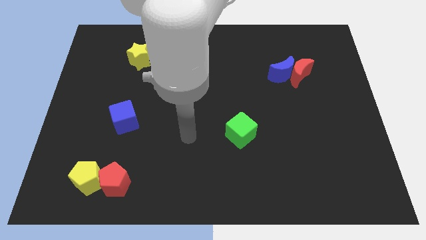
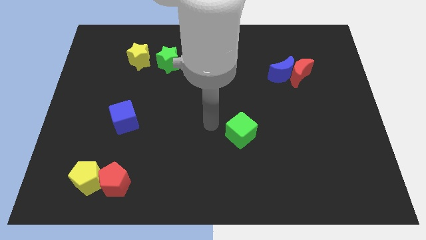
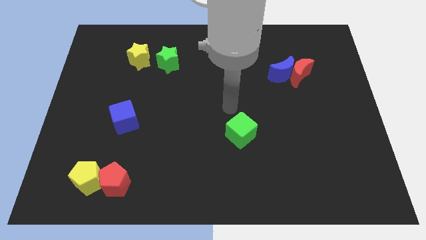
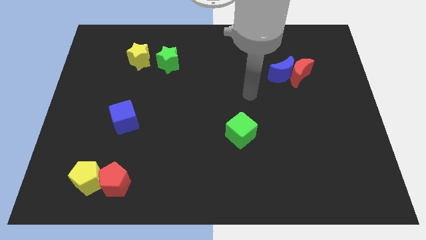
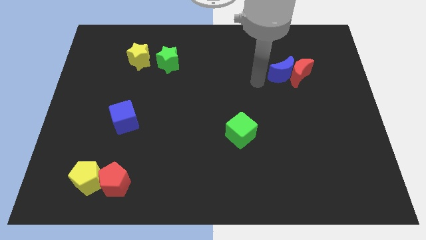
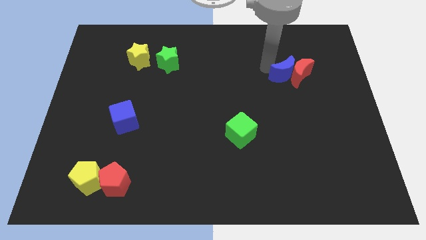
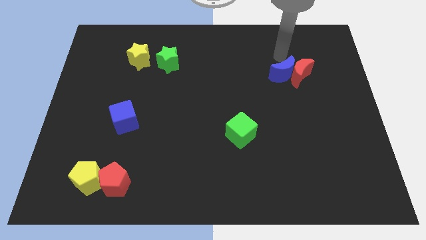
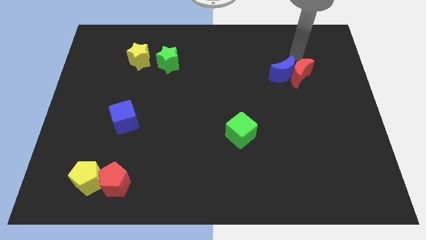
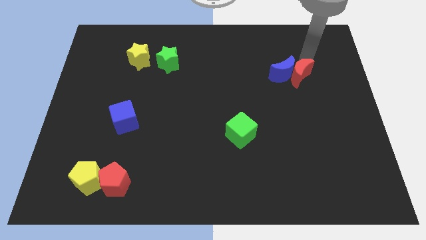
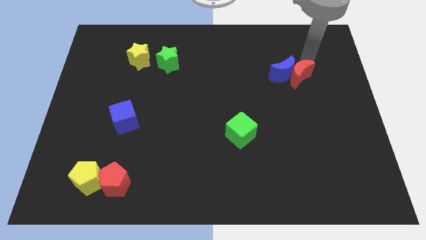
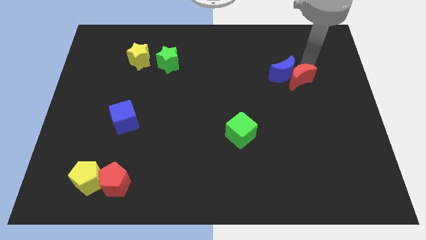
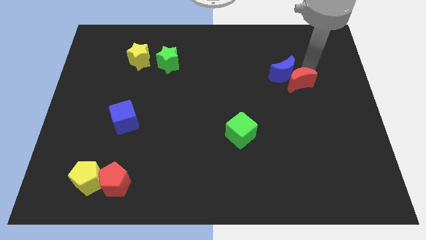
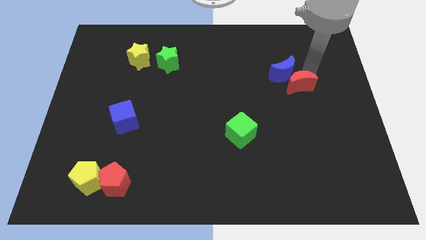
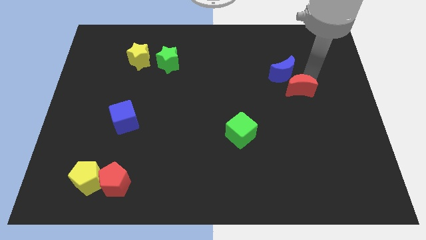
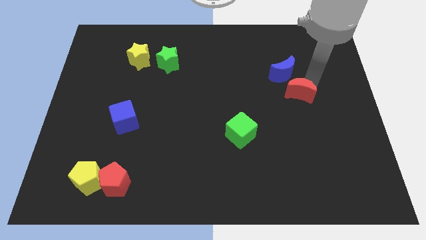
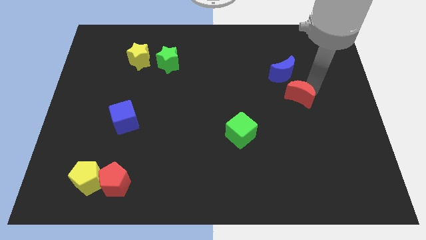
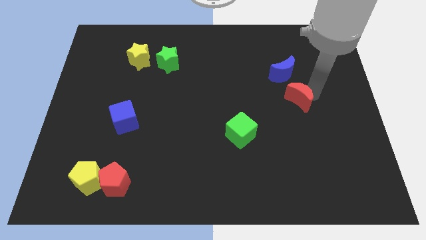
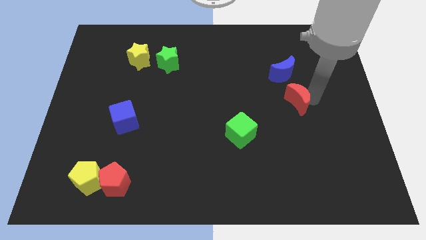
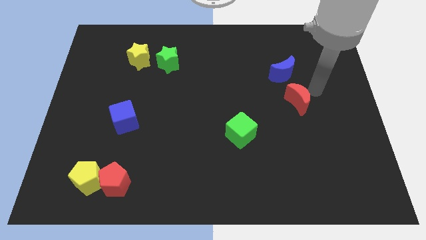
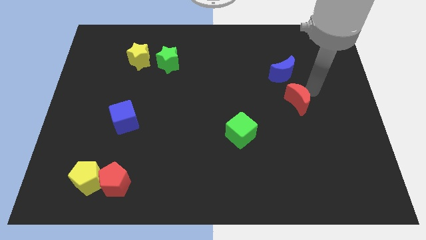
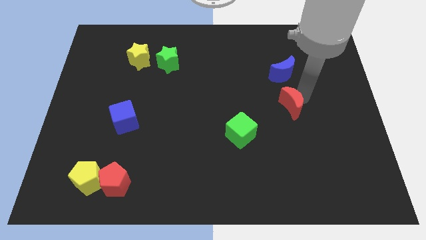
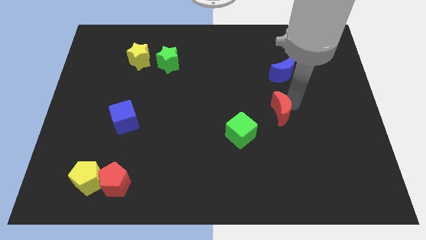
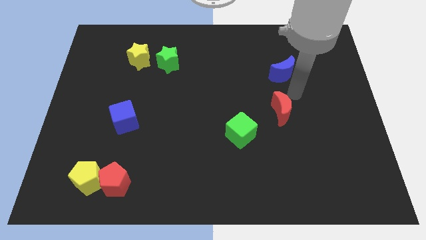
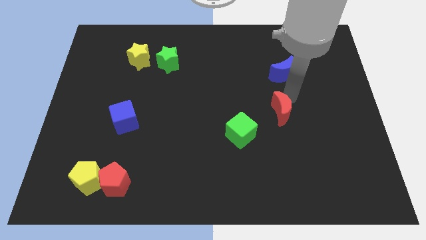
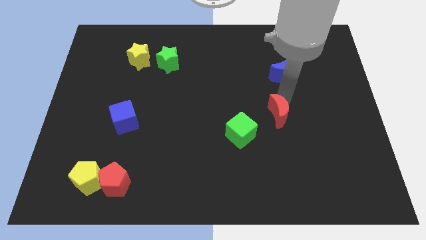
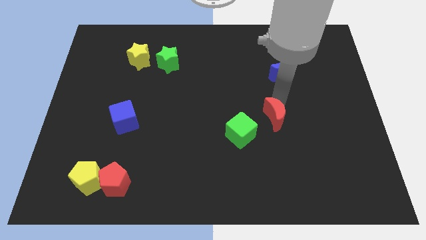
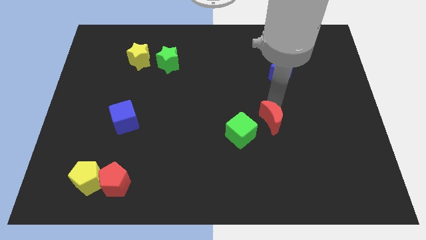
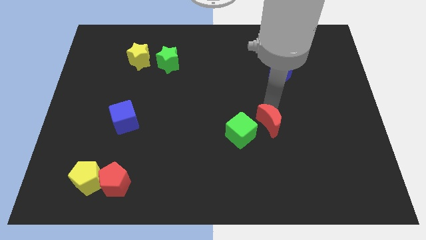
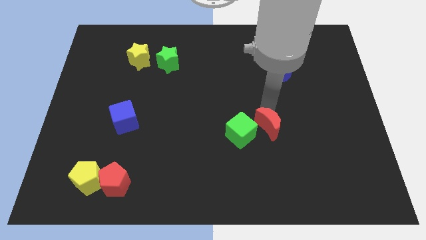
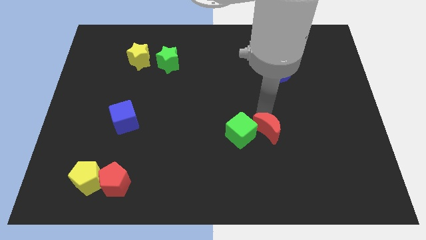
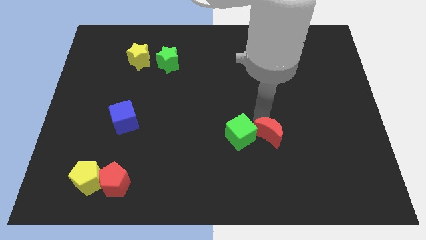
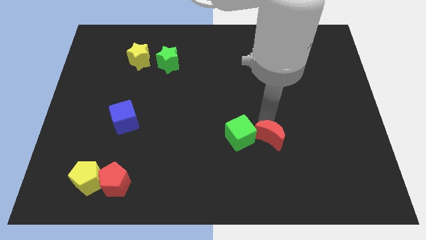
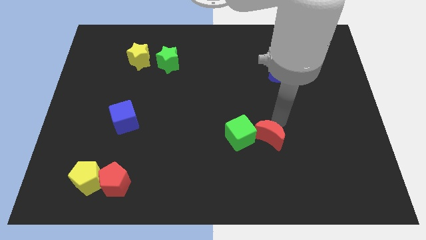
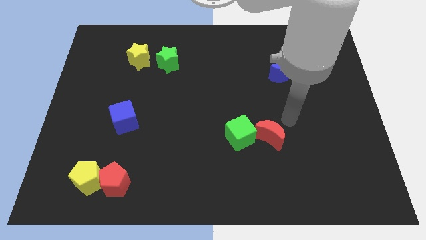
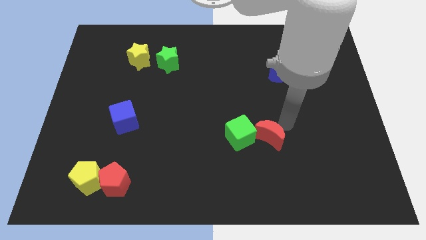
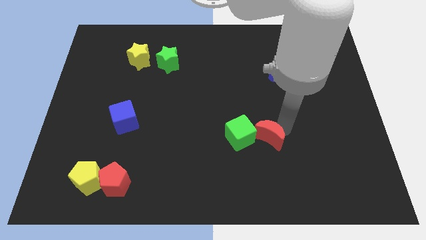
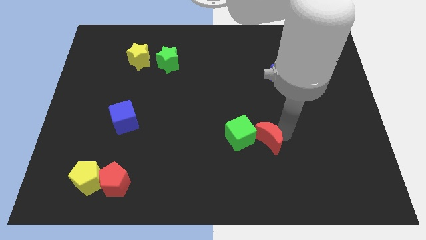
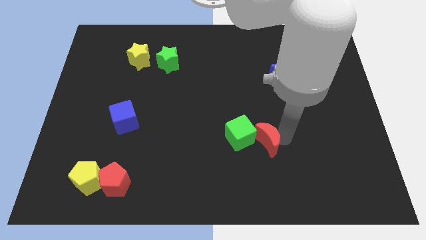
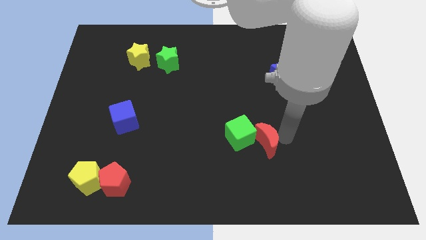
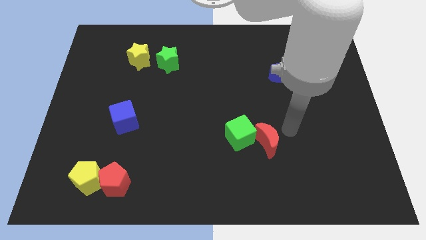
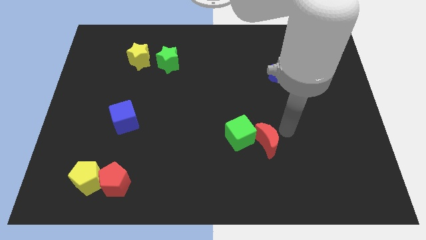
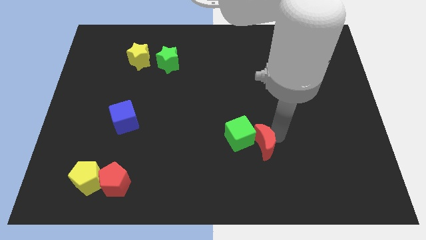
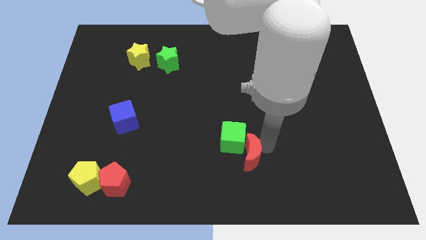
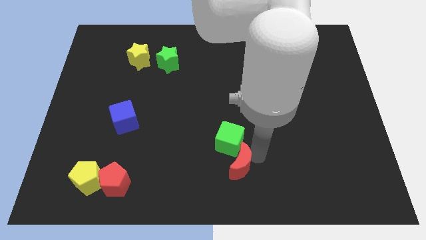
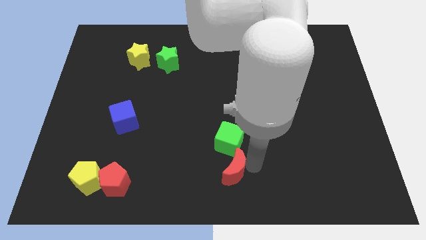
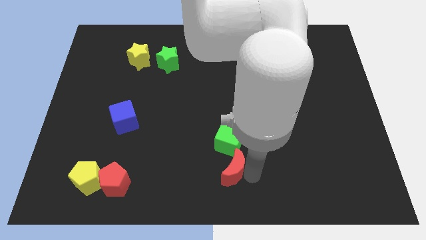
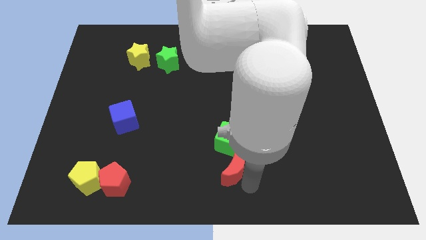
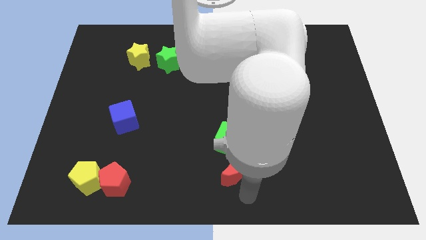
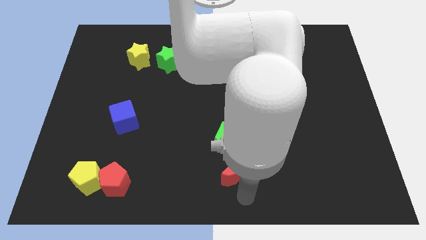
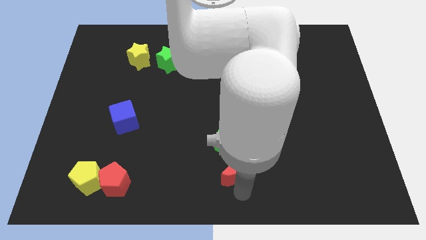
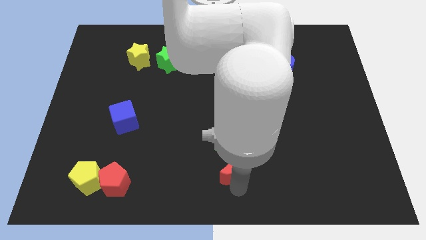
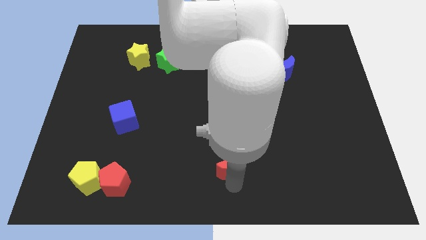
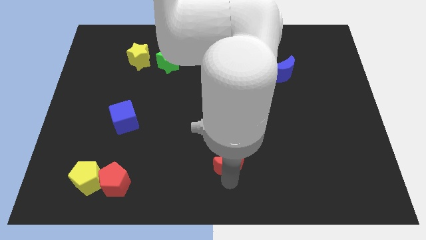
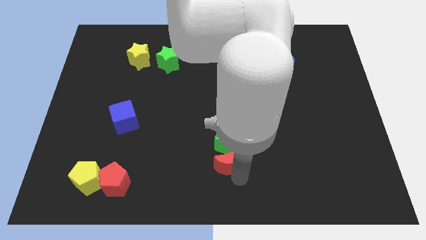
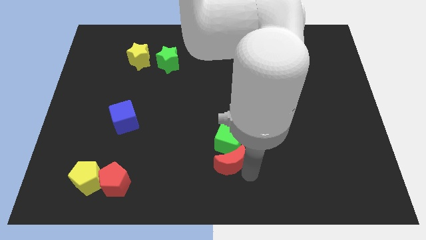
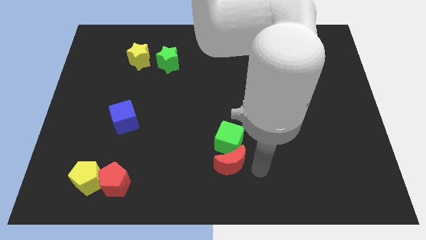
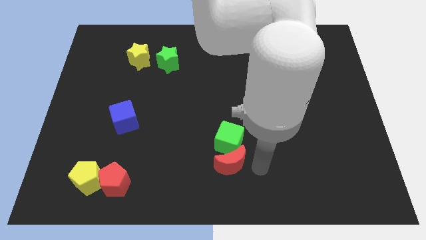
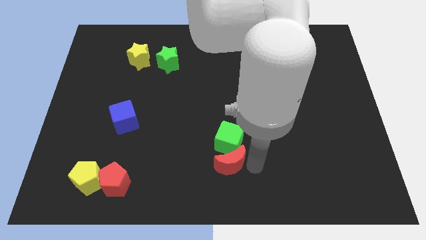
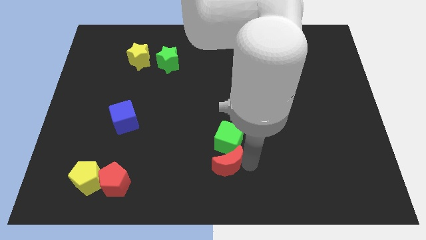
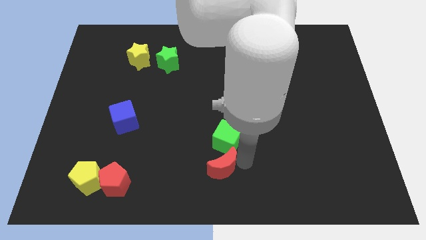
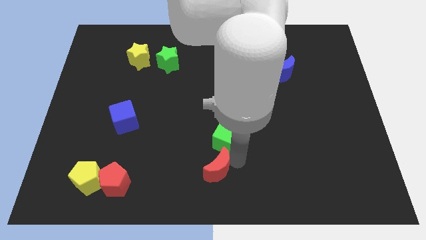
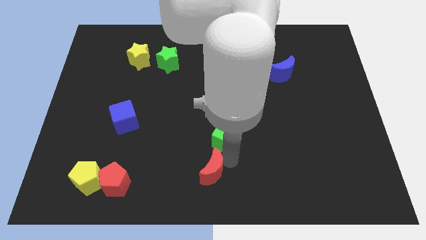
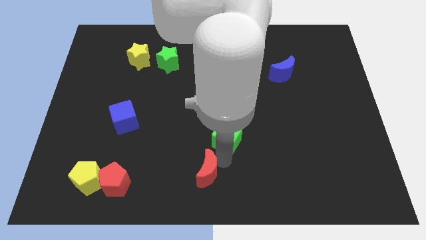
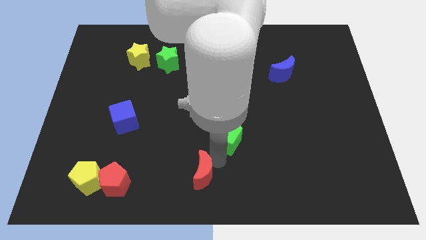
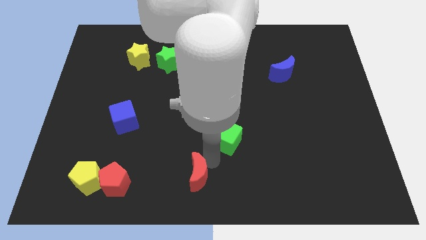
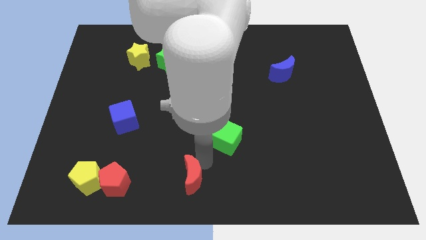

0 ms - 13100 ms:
move the red moon to the right side of the red pentagon
